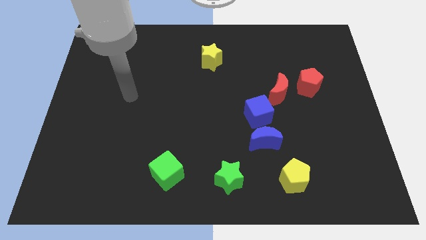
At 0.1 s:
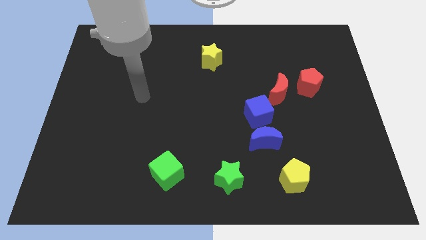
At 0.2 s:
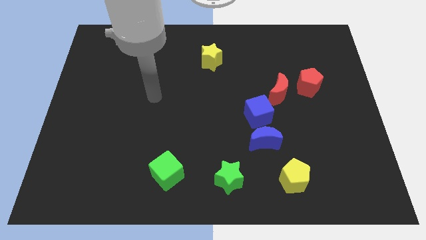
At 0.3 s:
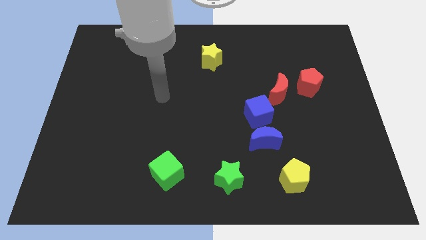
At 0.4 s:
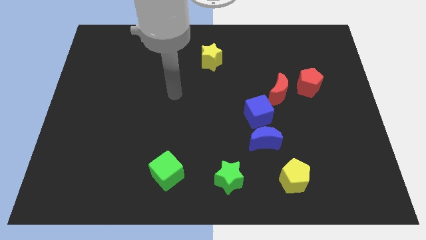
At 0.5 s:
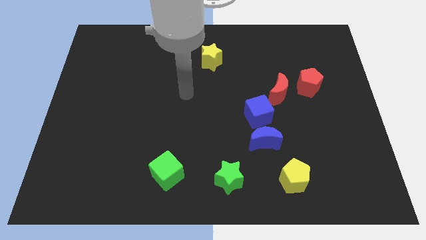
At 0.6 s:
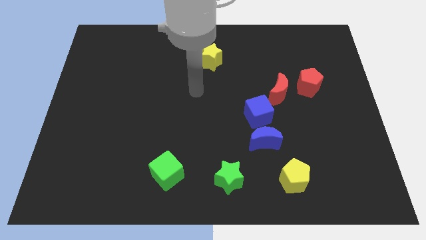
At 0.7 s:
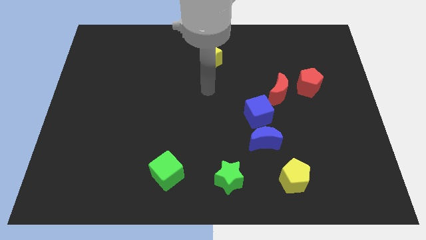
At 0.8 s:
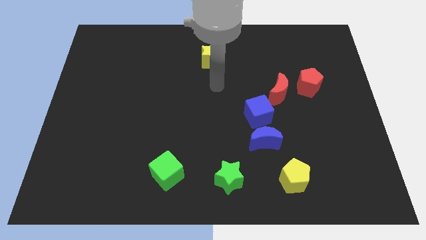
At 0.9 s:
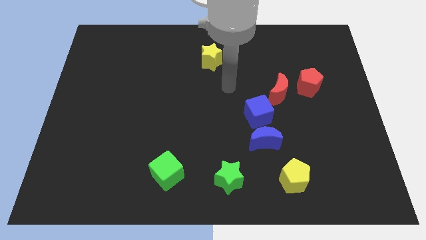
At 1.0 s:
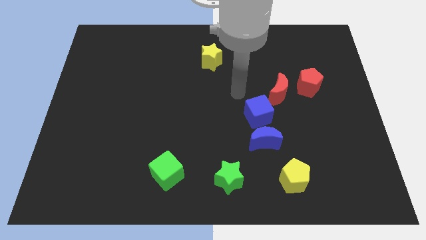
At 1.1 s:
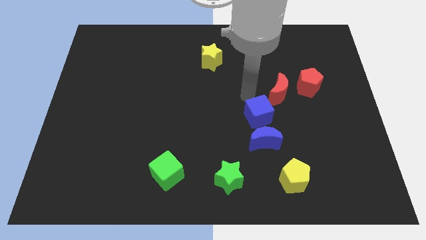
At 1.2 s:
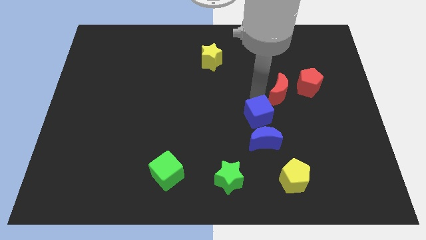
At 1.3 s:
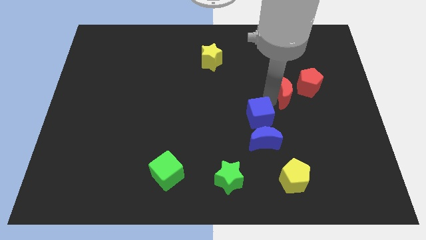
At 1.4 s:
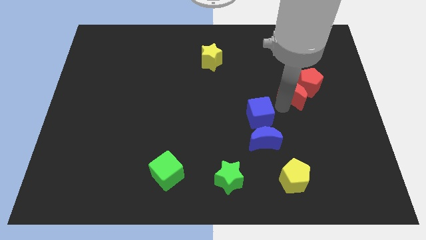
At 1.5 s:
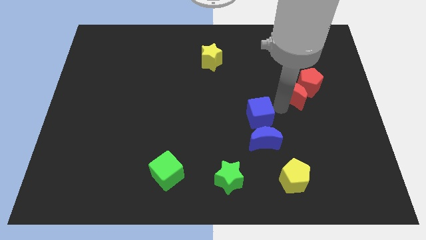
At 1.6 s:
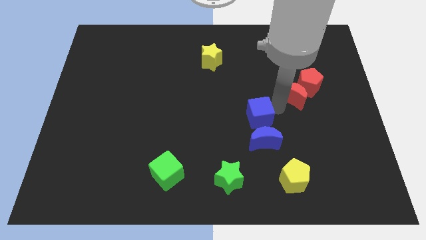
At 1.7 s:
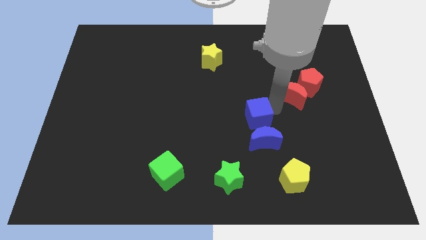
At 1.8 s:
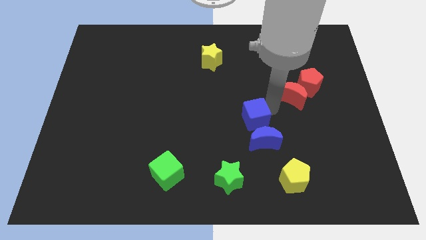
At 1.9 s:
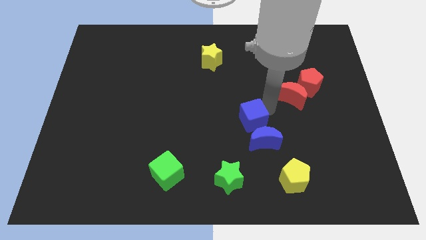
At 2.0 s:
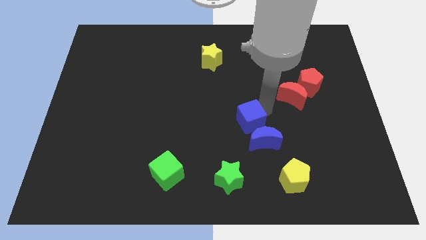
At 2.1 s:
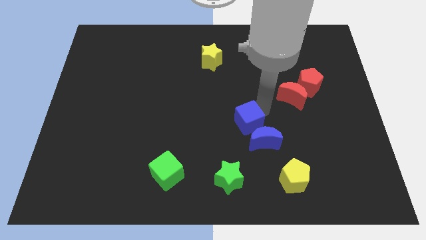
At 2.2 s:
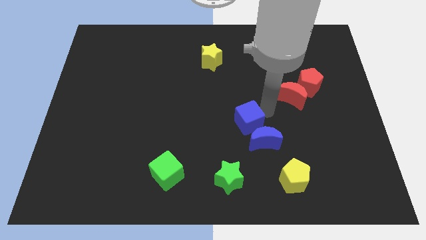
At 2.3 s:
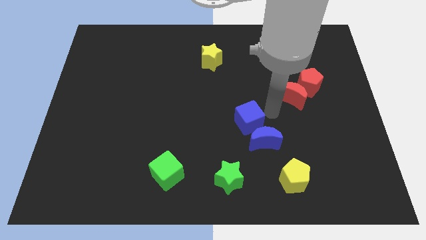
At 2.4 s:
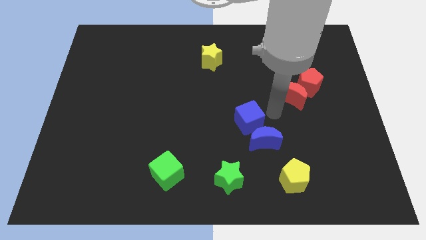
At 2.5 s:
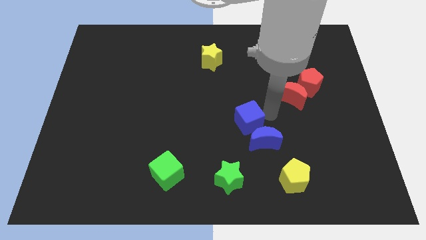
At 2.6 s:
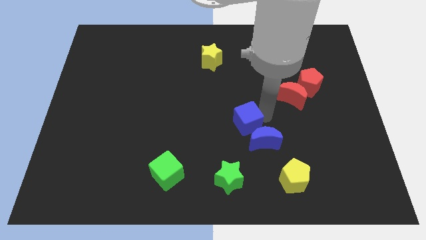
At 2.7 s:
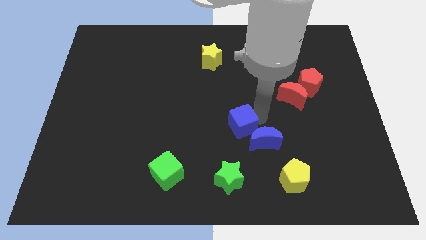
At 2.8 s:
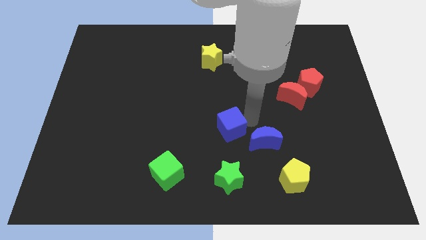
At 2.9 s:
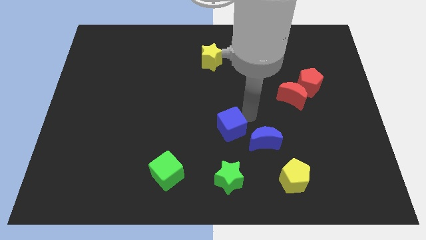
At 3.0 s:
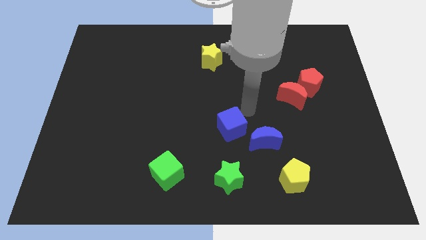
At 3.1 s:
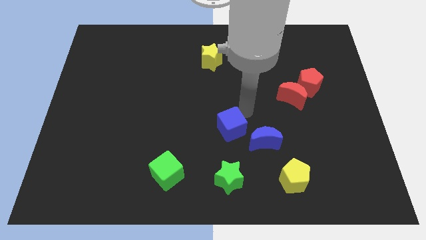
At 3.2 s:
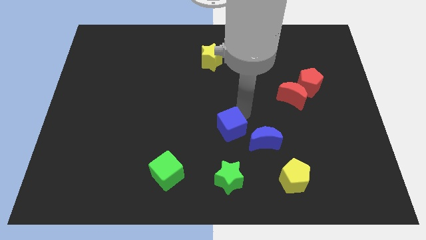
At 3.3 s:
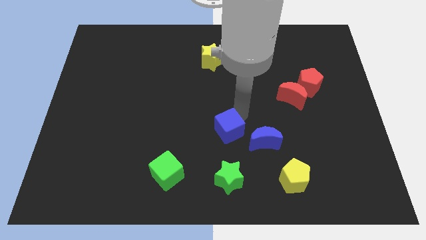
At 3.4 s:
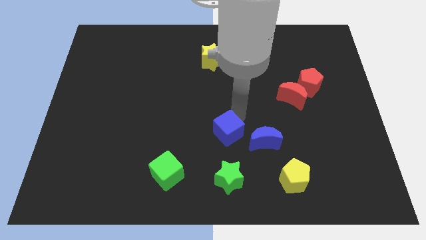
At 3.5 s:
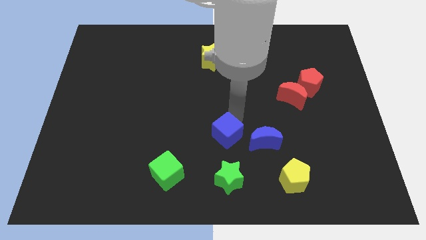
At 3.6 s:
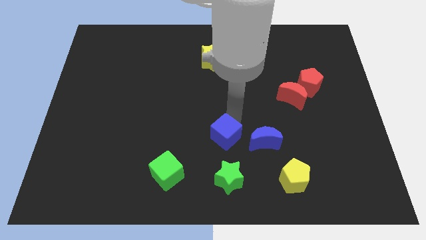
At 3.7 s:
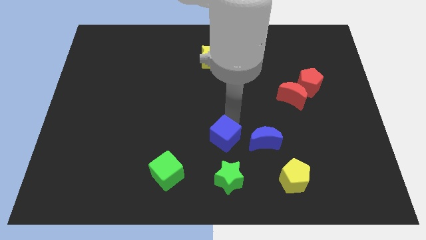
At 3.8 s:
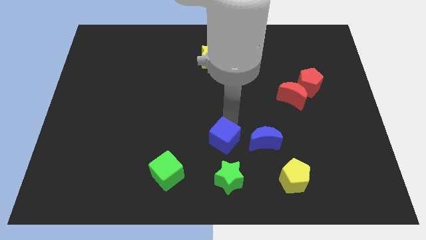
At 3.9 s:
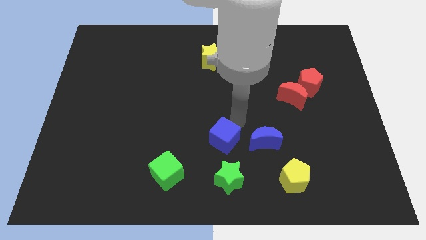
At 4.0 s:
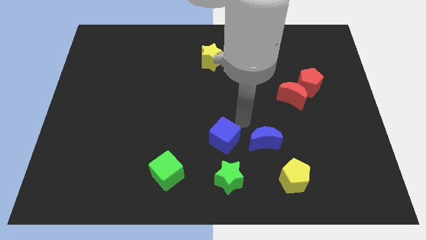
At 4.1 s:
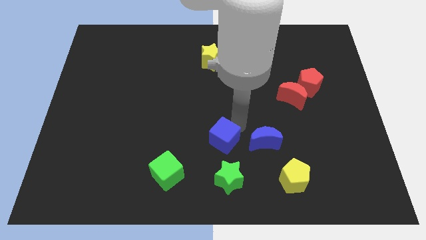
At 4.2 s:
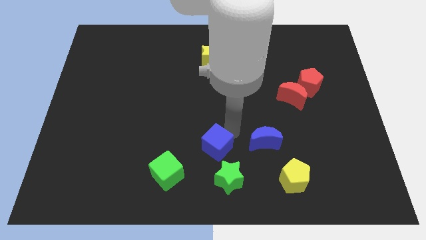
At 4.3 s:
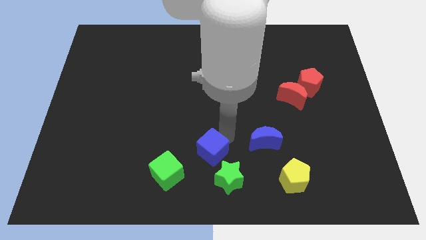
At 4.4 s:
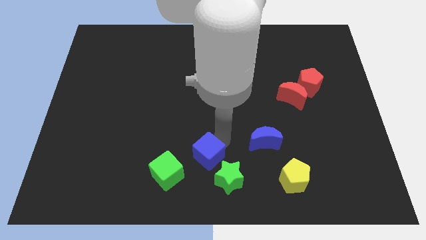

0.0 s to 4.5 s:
put the blue cube to the bottom side

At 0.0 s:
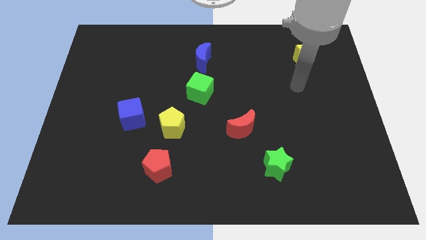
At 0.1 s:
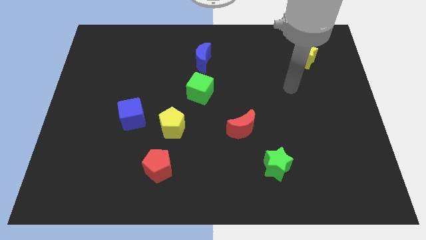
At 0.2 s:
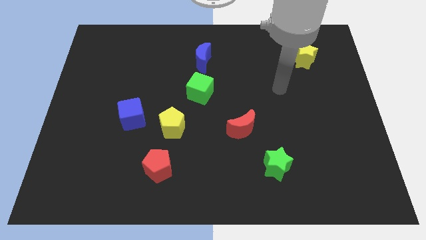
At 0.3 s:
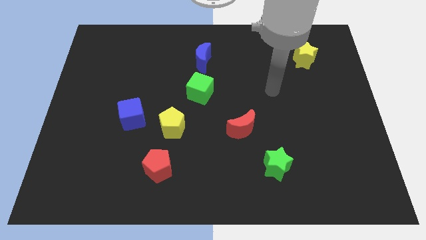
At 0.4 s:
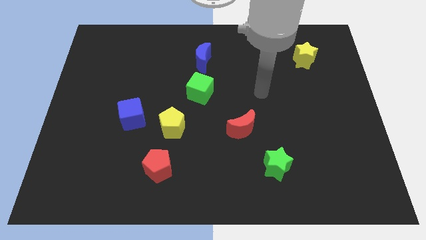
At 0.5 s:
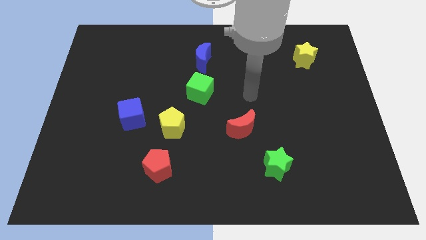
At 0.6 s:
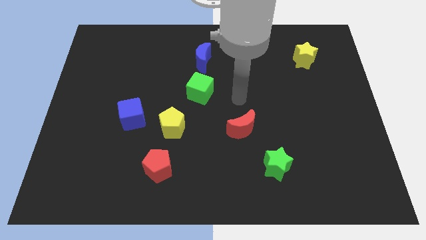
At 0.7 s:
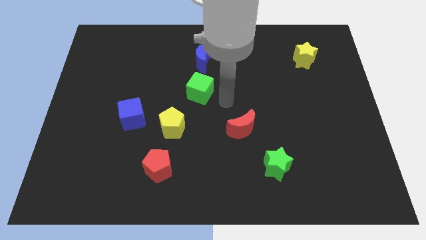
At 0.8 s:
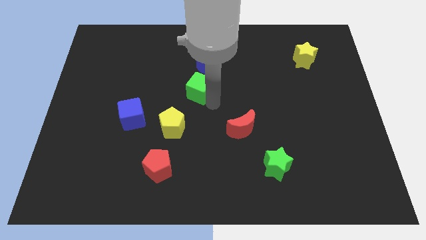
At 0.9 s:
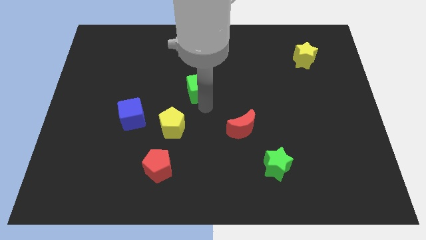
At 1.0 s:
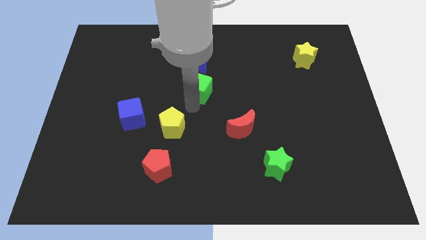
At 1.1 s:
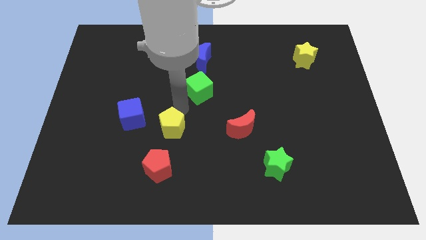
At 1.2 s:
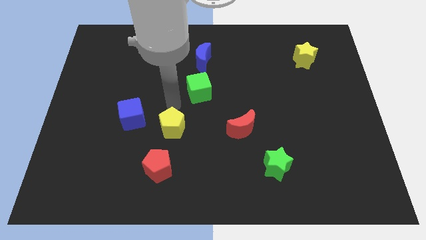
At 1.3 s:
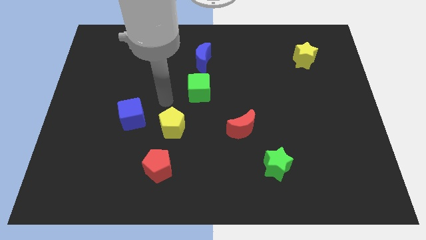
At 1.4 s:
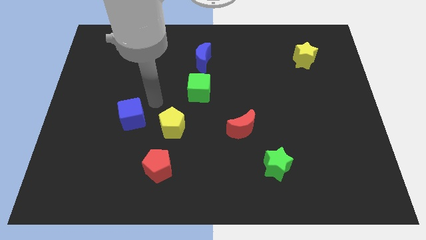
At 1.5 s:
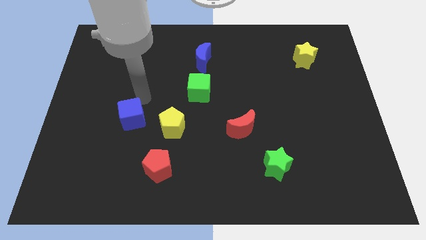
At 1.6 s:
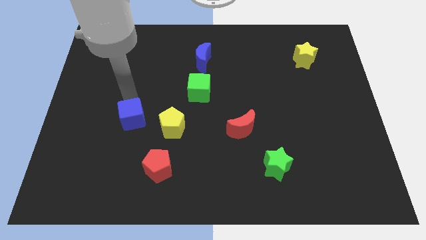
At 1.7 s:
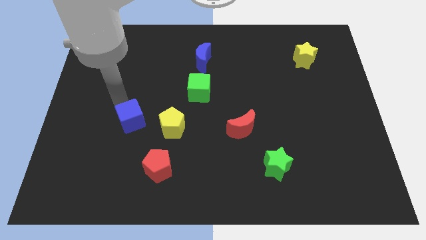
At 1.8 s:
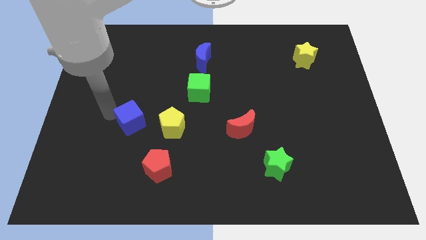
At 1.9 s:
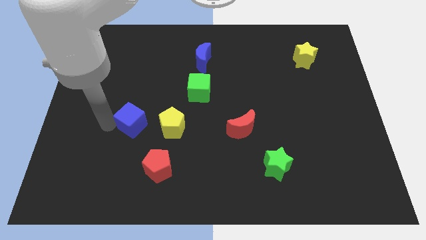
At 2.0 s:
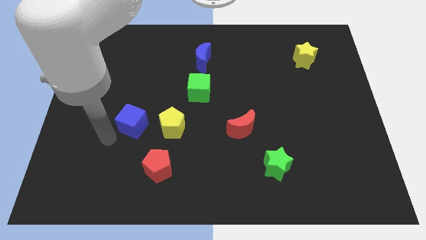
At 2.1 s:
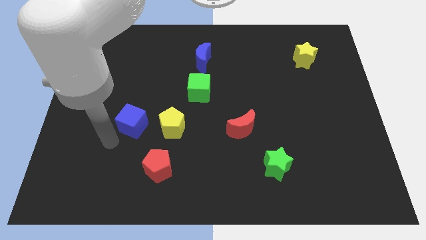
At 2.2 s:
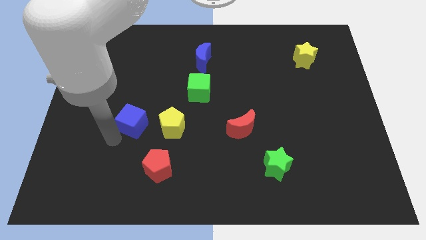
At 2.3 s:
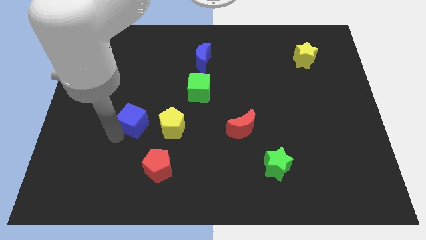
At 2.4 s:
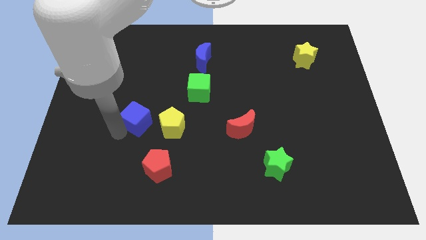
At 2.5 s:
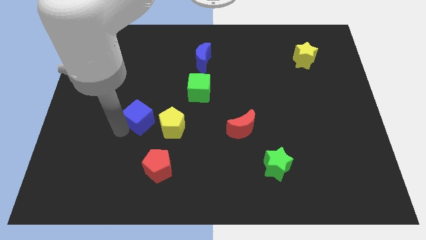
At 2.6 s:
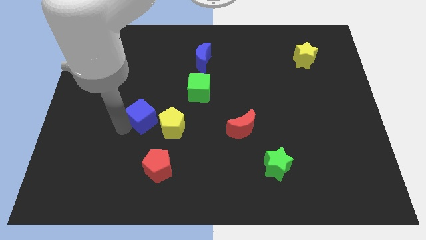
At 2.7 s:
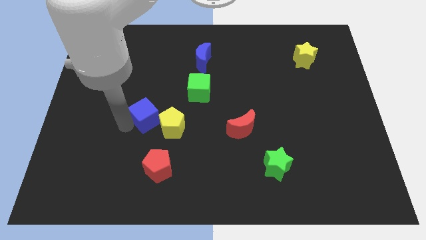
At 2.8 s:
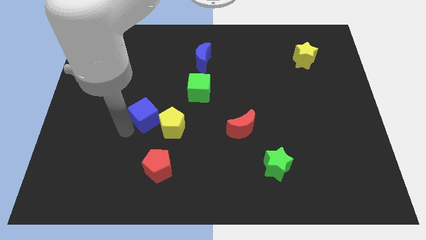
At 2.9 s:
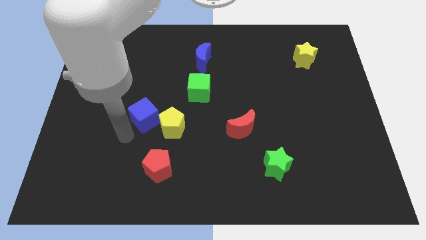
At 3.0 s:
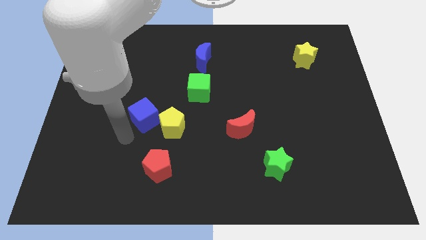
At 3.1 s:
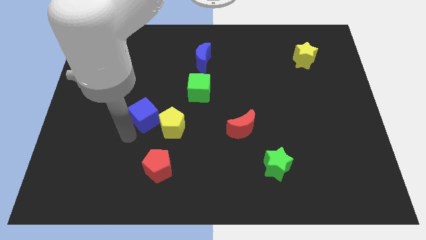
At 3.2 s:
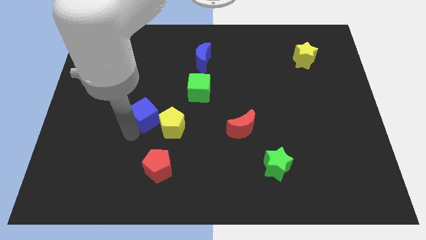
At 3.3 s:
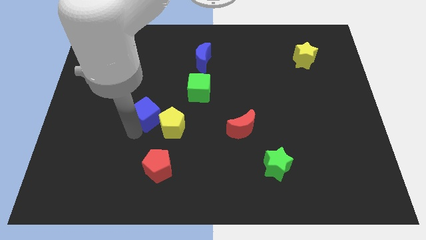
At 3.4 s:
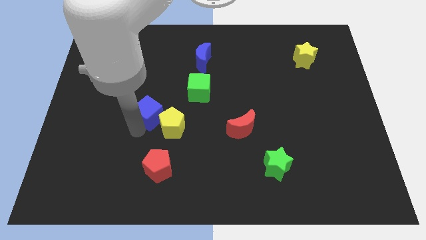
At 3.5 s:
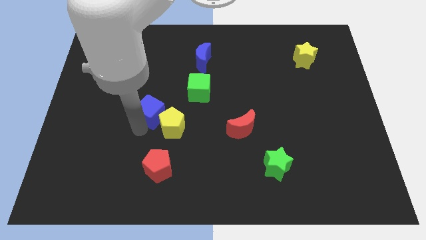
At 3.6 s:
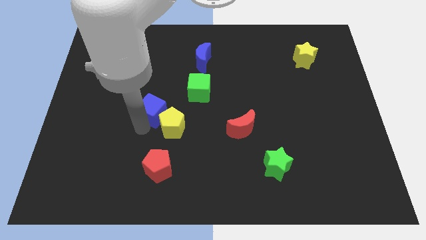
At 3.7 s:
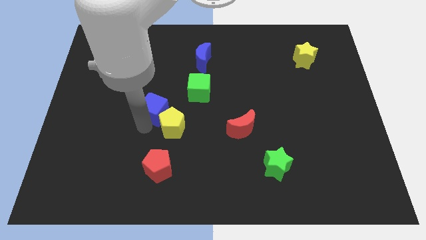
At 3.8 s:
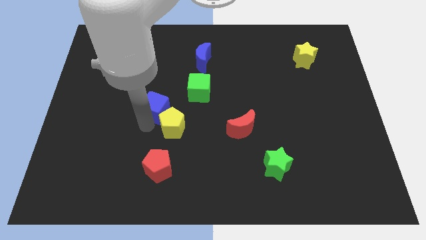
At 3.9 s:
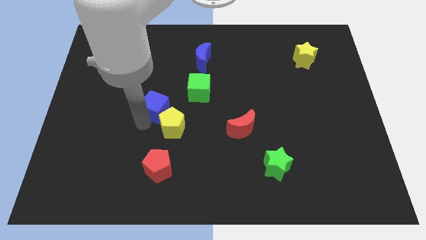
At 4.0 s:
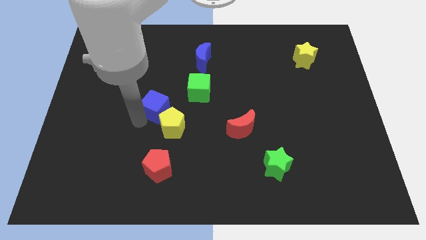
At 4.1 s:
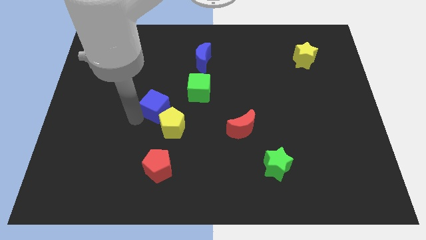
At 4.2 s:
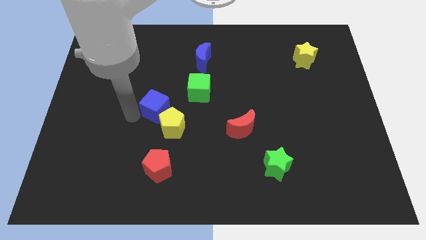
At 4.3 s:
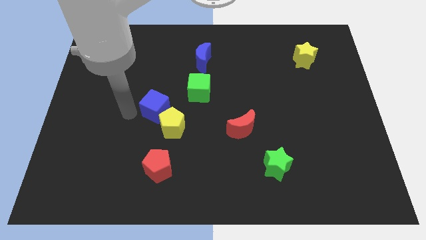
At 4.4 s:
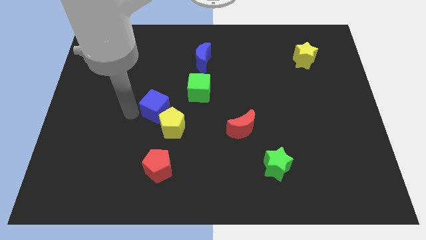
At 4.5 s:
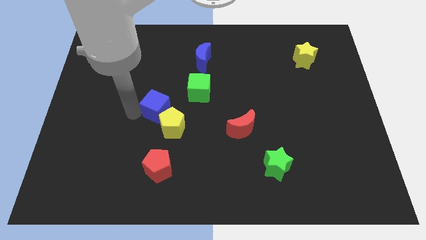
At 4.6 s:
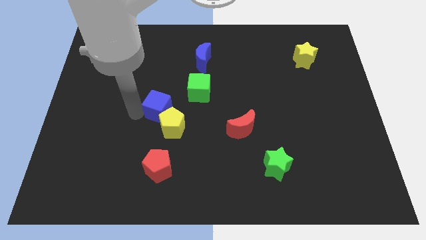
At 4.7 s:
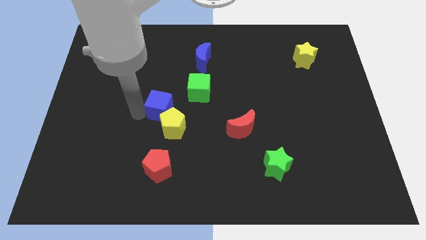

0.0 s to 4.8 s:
push the blue cube to the center of the board
